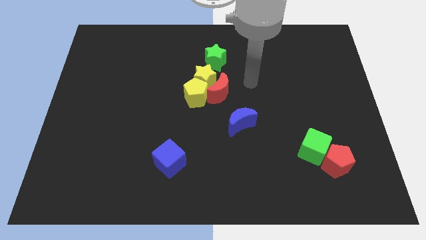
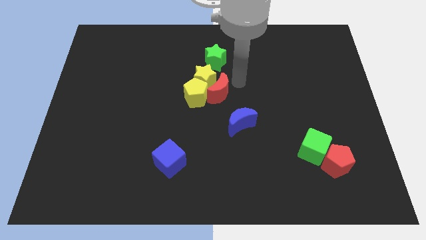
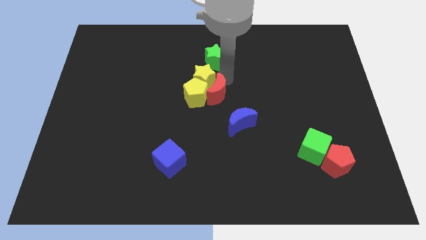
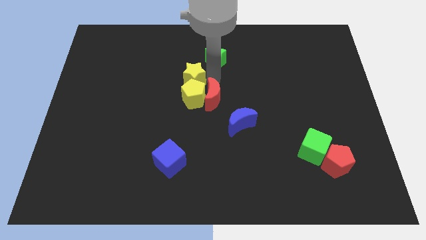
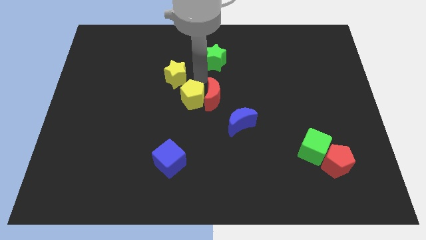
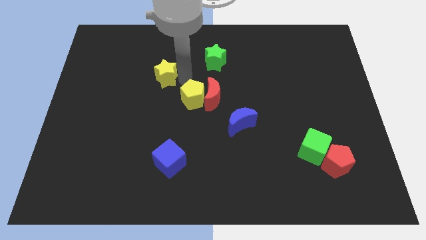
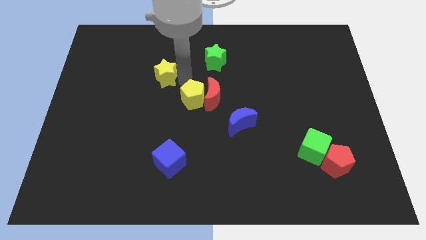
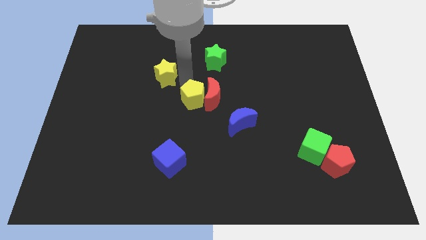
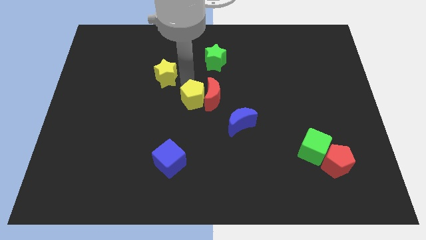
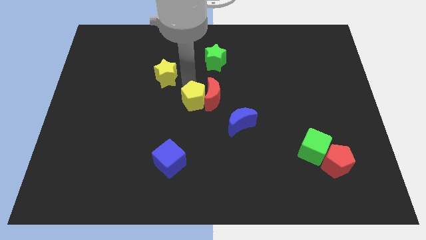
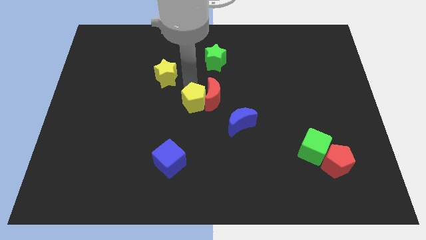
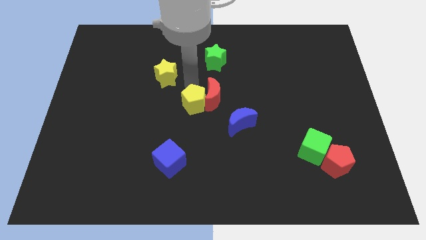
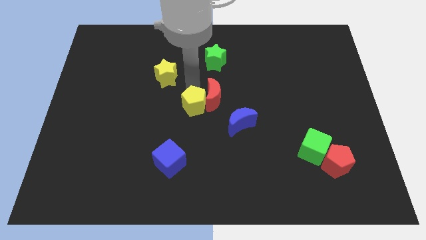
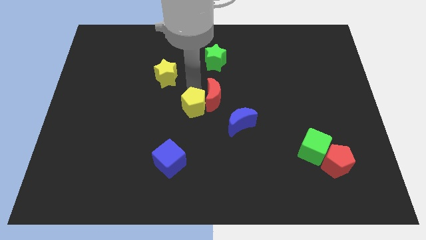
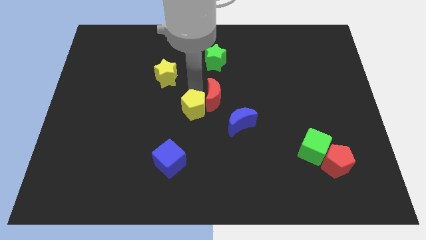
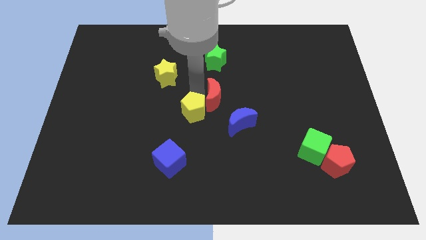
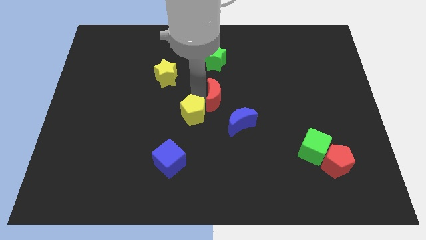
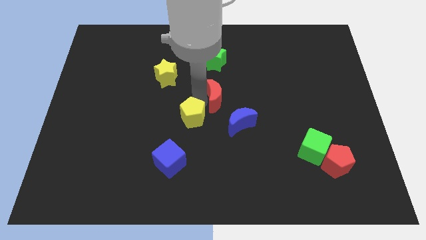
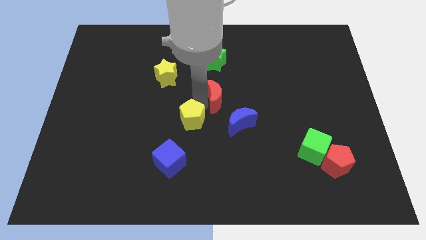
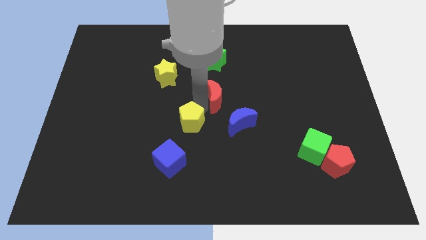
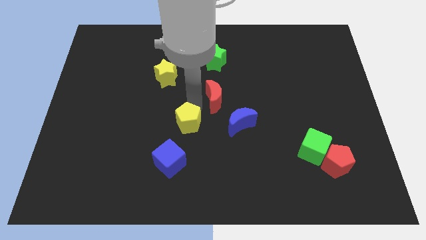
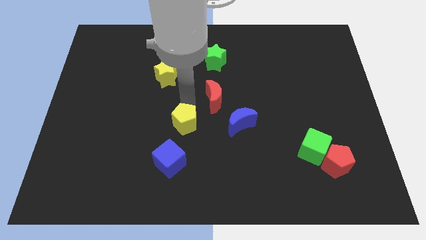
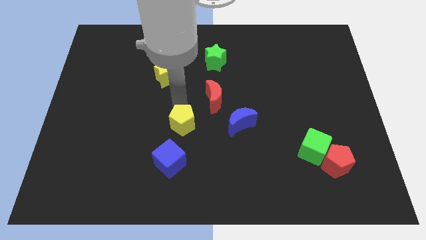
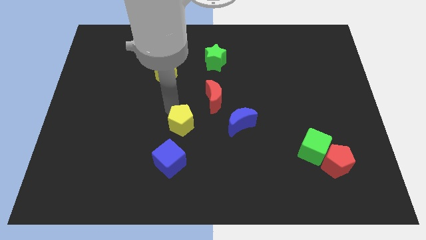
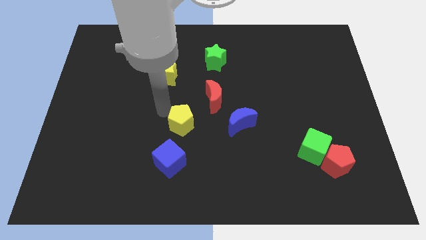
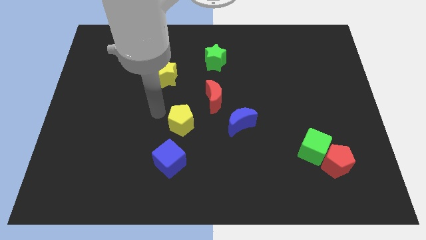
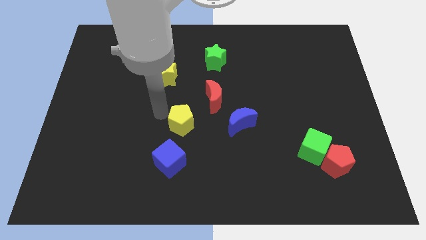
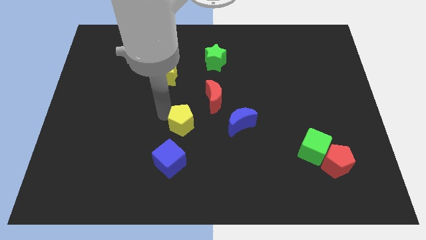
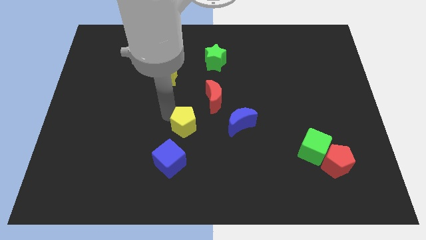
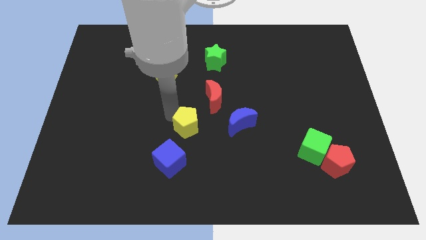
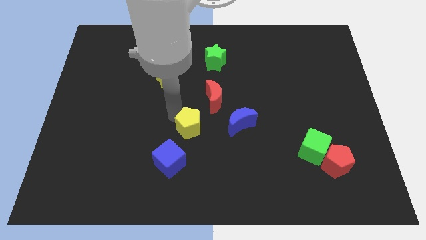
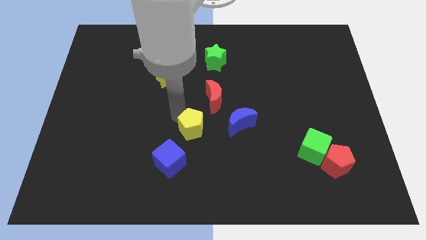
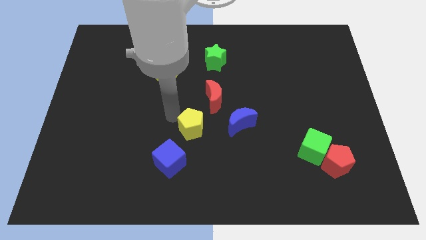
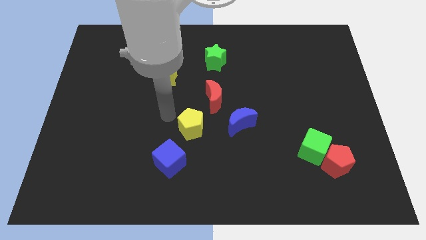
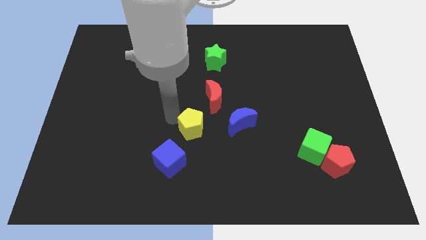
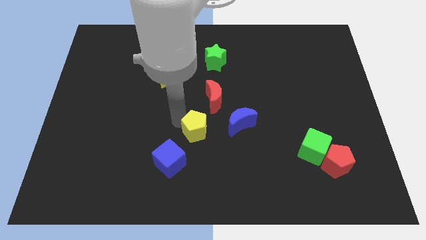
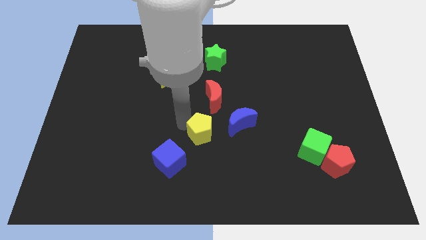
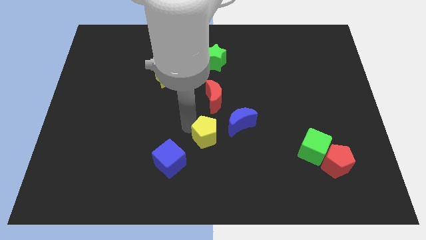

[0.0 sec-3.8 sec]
slide the yellow pentagon a little bit diagonally down and to the right

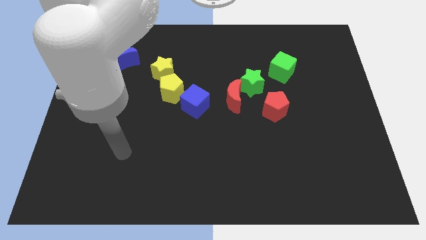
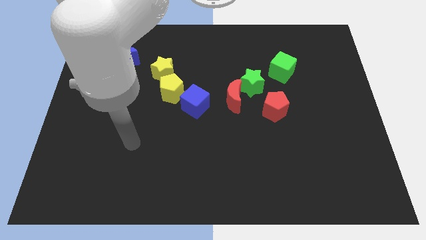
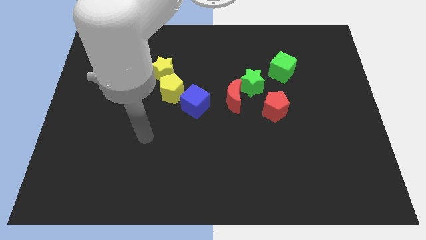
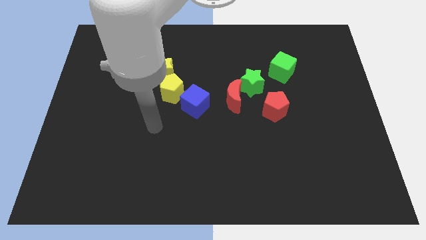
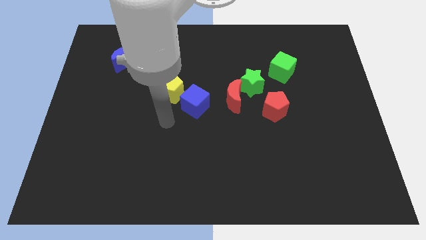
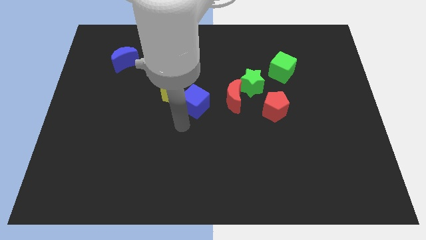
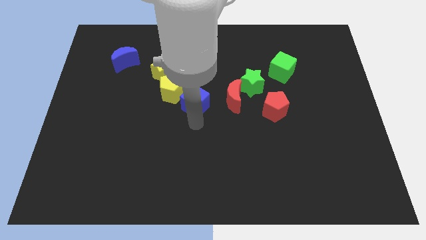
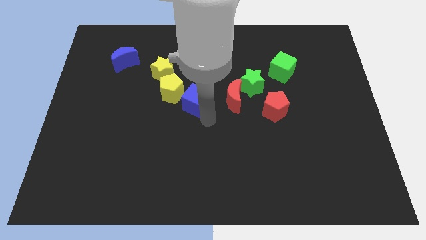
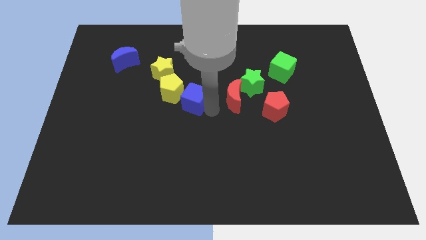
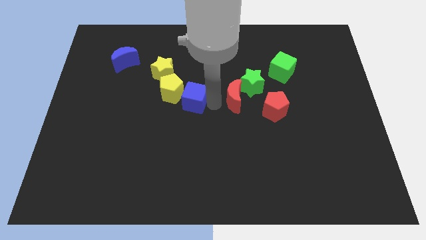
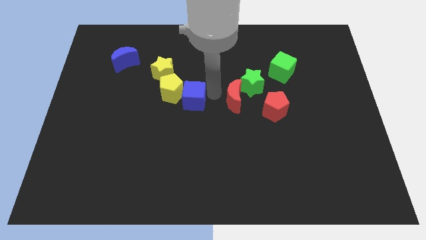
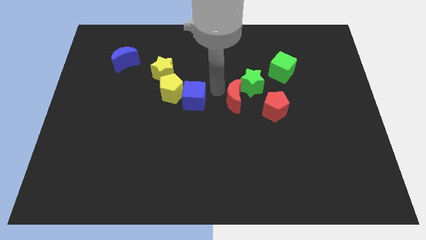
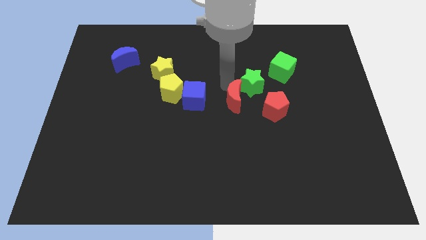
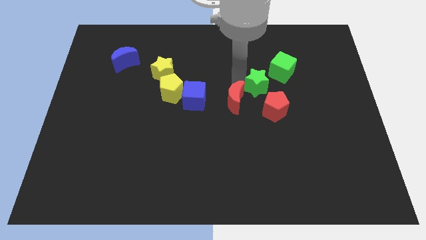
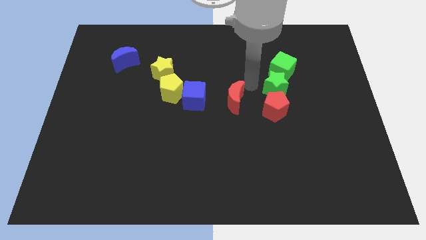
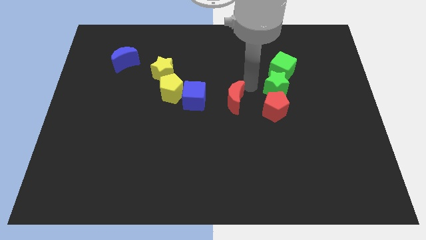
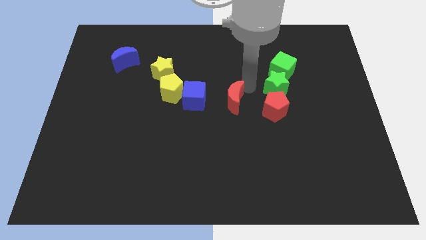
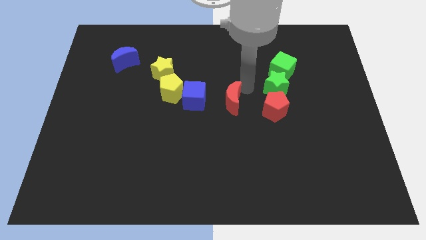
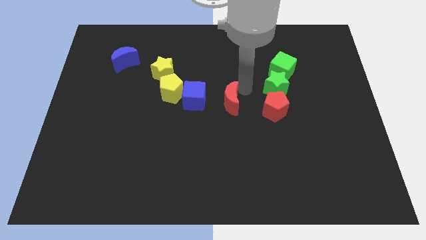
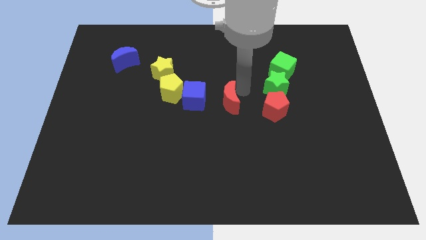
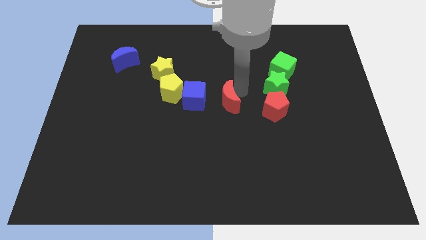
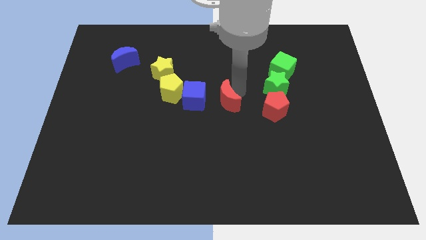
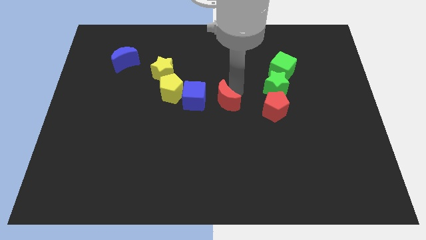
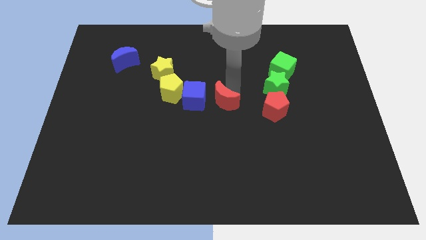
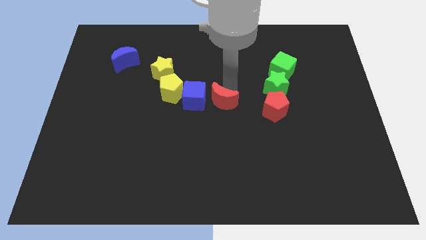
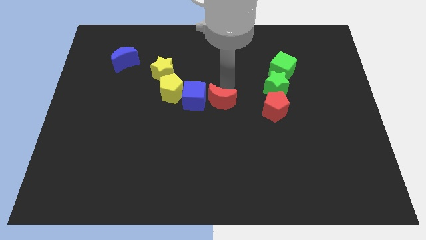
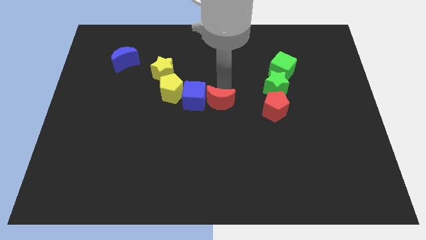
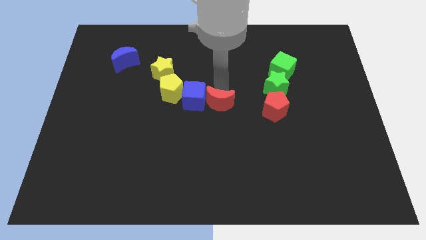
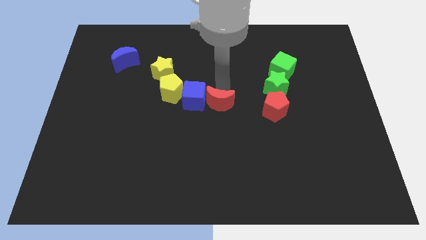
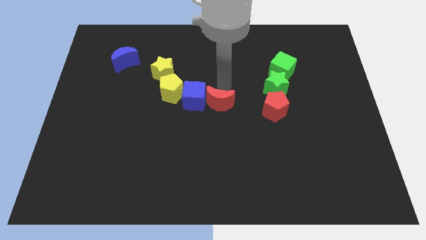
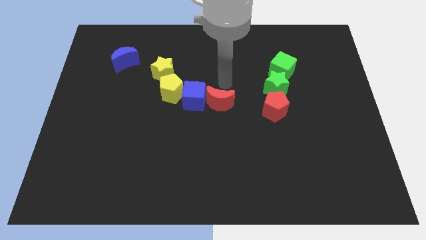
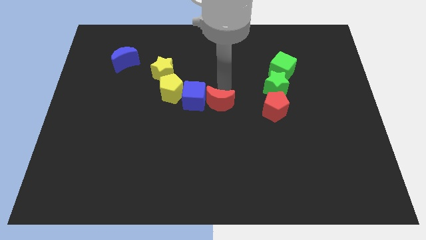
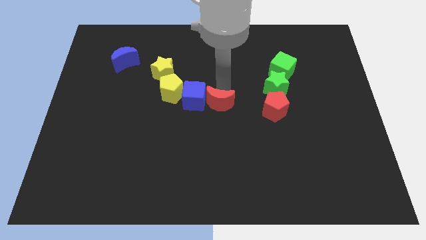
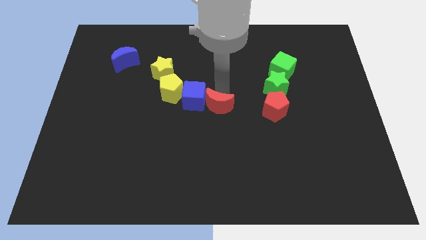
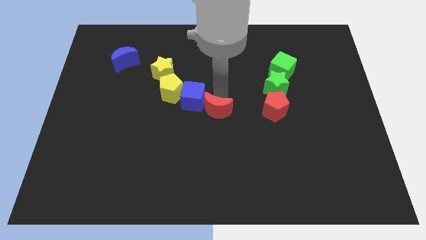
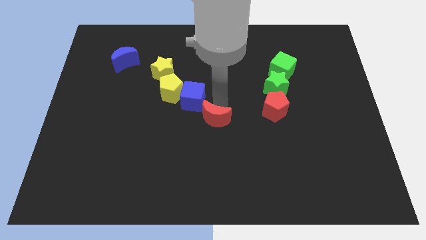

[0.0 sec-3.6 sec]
slide the red moon a little bit downwards and left
